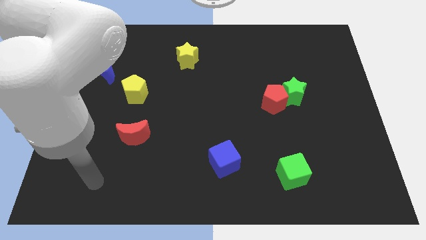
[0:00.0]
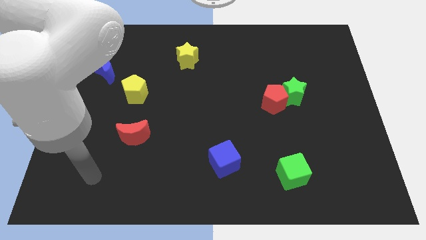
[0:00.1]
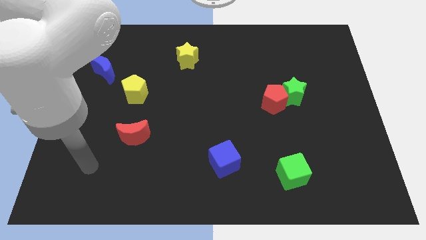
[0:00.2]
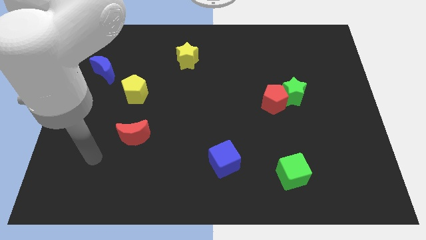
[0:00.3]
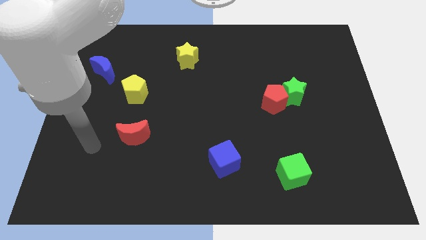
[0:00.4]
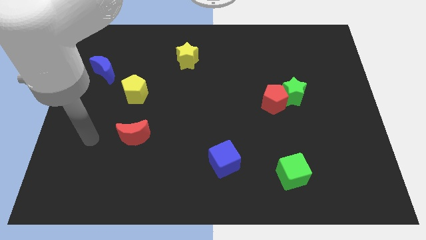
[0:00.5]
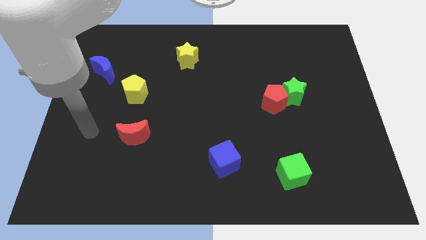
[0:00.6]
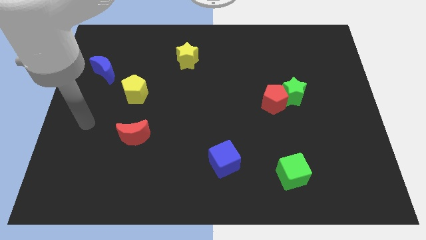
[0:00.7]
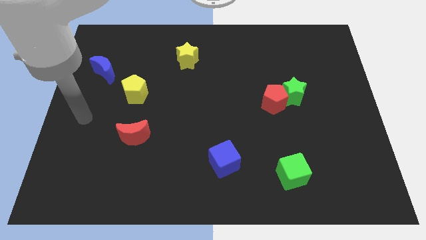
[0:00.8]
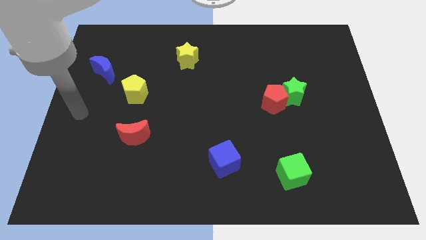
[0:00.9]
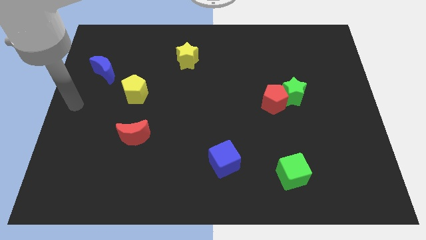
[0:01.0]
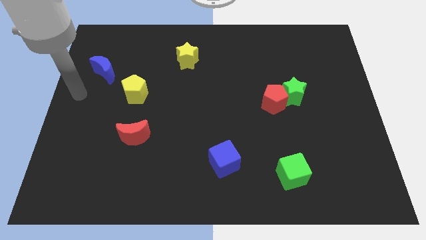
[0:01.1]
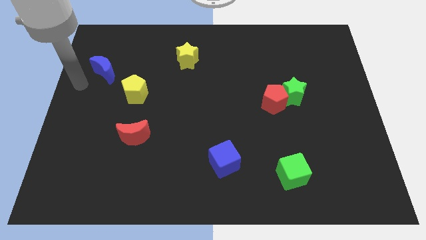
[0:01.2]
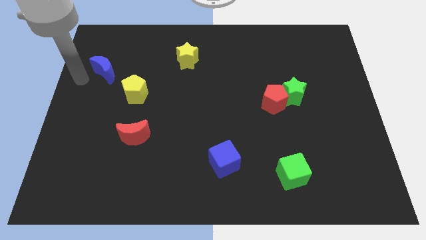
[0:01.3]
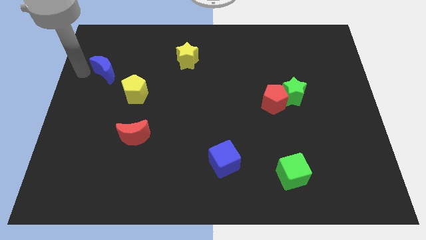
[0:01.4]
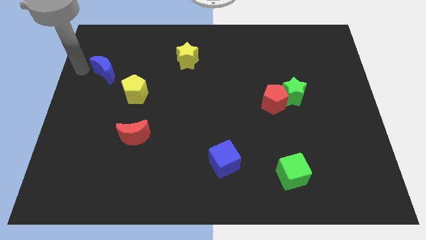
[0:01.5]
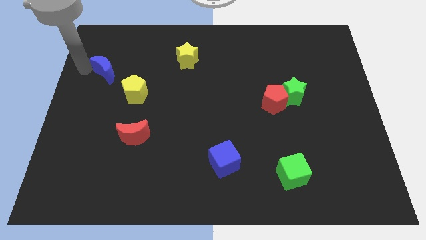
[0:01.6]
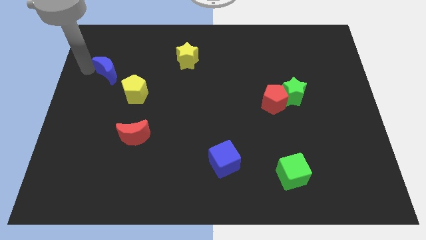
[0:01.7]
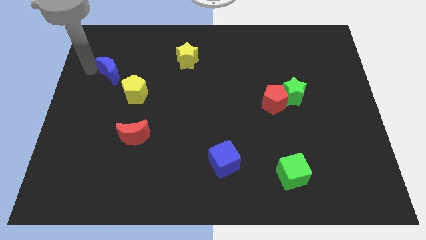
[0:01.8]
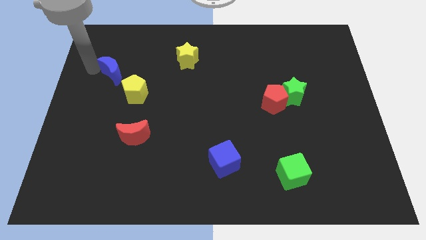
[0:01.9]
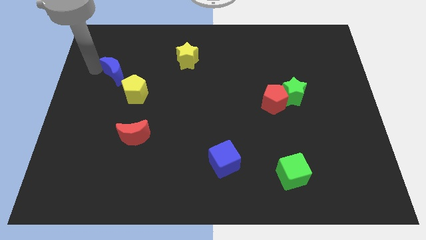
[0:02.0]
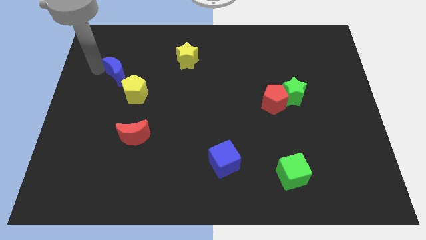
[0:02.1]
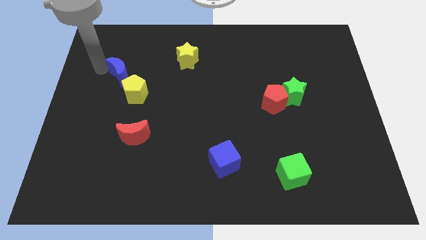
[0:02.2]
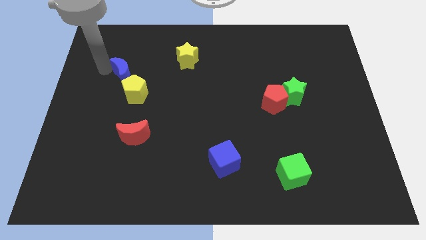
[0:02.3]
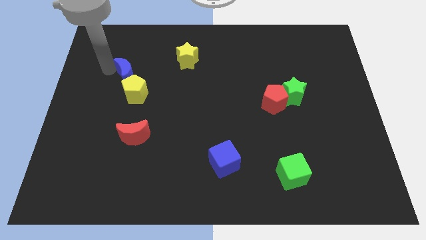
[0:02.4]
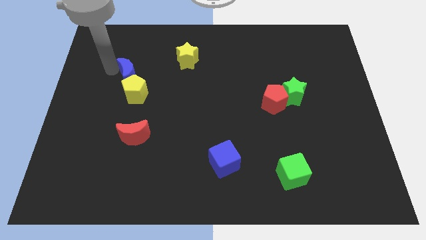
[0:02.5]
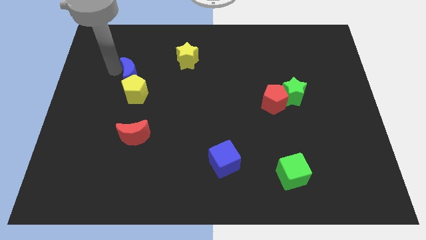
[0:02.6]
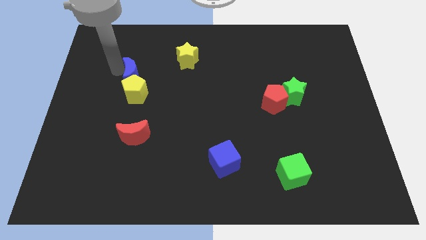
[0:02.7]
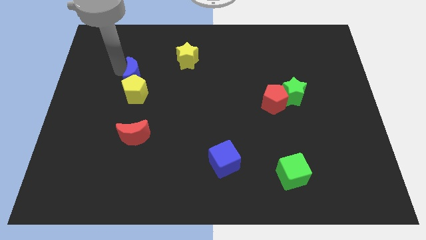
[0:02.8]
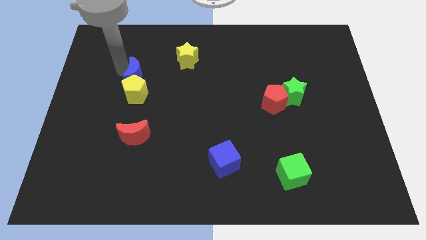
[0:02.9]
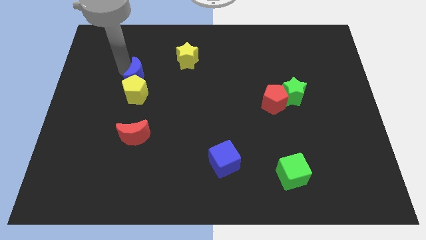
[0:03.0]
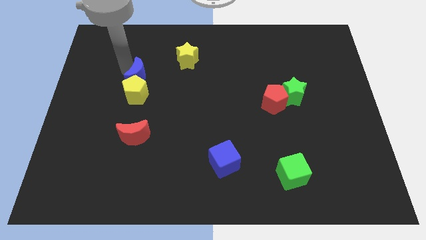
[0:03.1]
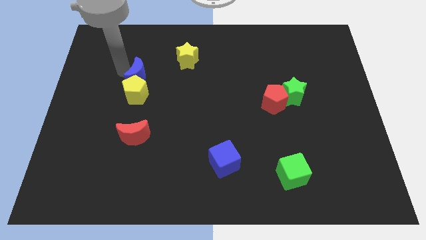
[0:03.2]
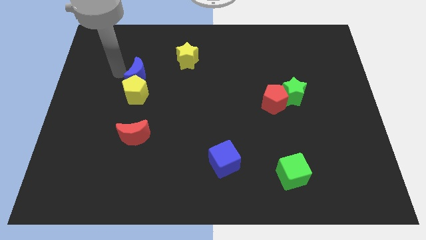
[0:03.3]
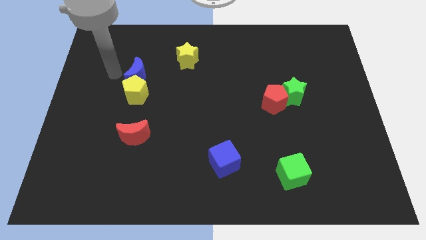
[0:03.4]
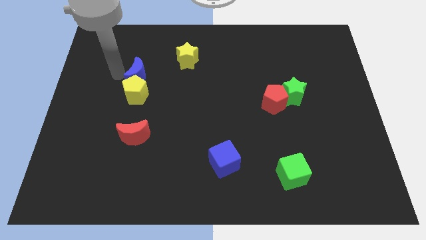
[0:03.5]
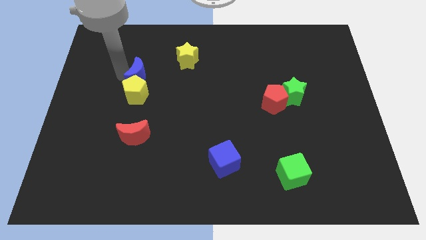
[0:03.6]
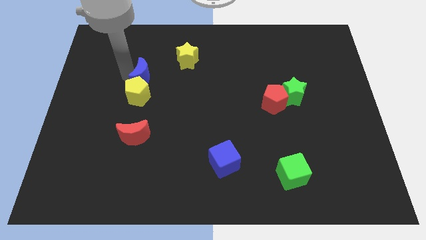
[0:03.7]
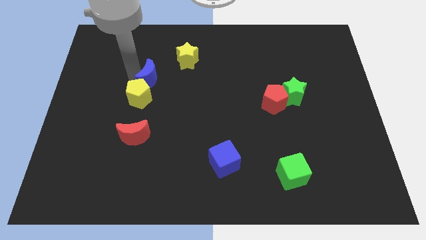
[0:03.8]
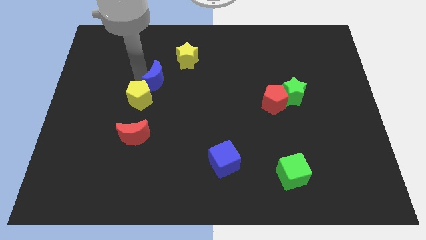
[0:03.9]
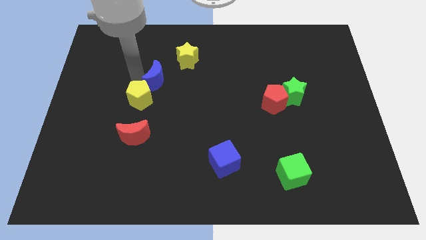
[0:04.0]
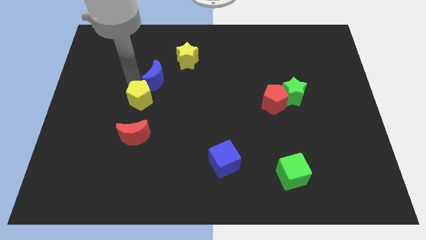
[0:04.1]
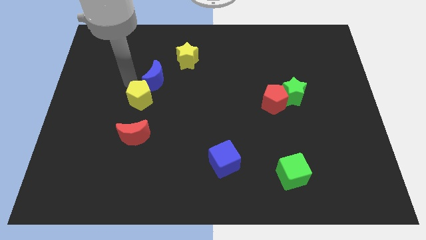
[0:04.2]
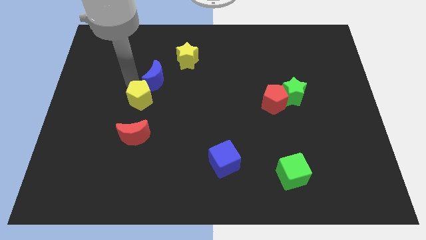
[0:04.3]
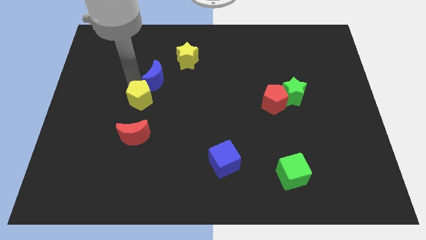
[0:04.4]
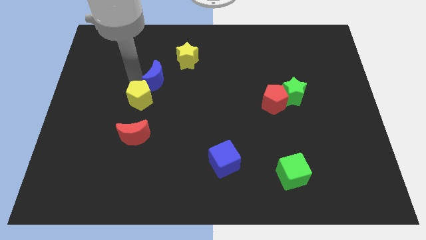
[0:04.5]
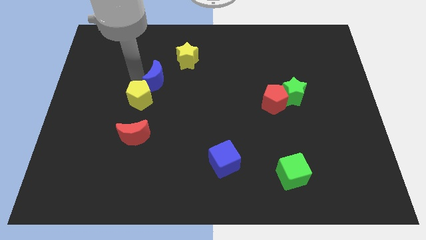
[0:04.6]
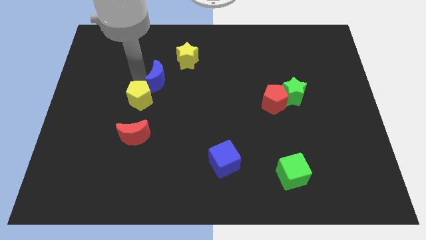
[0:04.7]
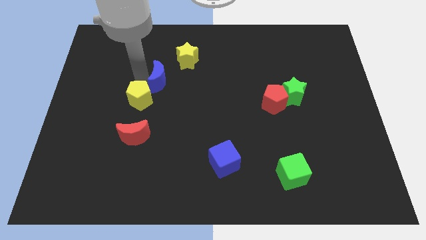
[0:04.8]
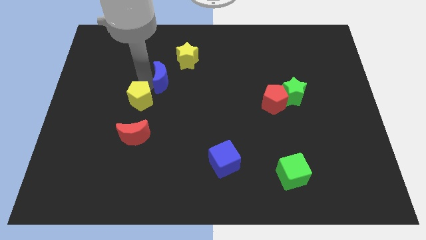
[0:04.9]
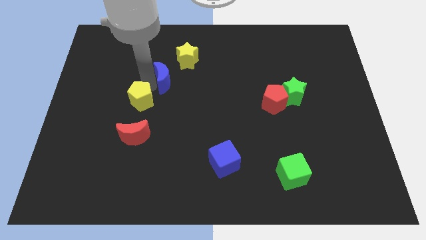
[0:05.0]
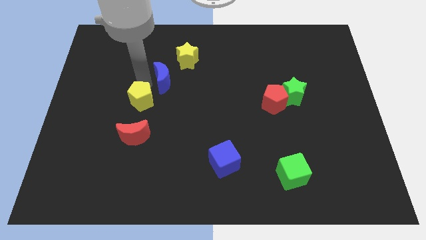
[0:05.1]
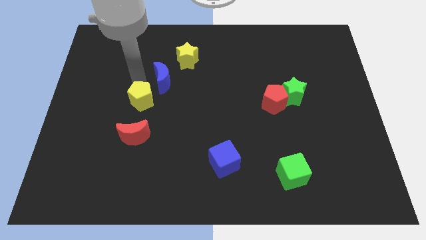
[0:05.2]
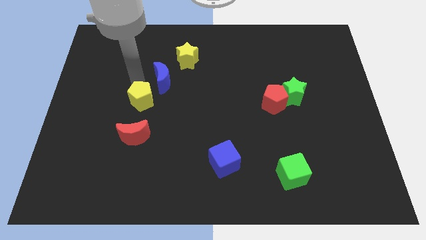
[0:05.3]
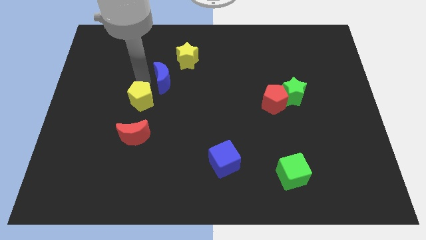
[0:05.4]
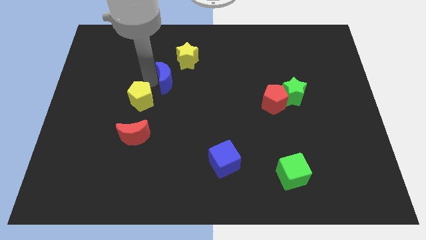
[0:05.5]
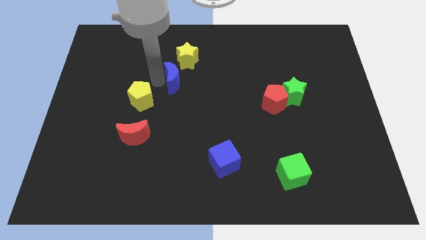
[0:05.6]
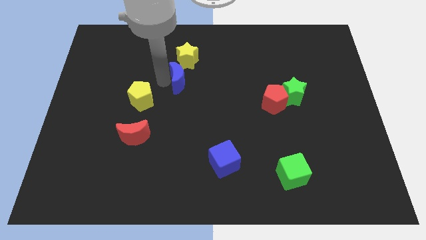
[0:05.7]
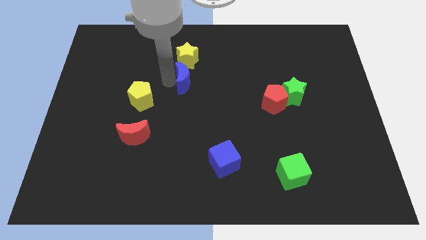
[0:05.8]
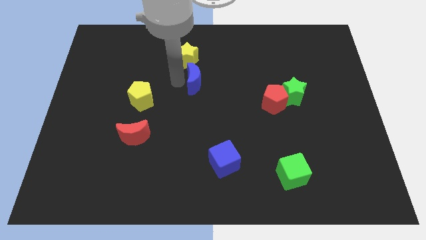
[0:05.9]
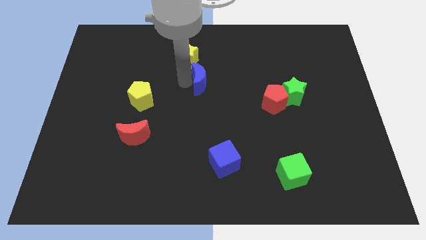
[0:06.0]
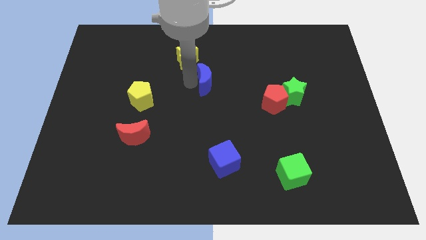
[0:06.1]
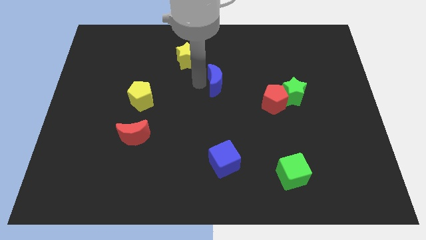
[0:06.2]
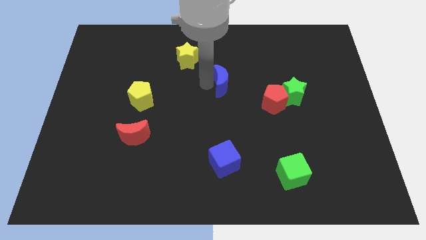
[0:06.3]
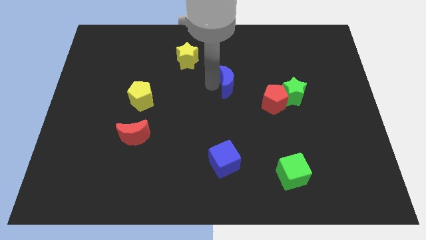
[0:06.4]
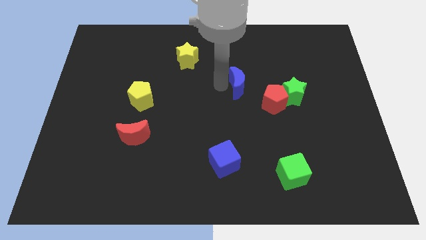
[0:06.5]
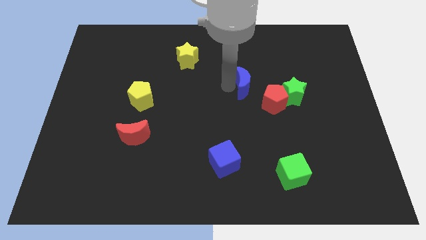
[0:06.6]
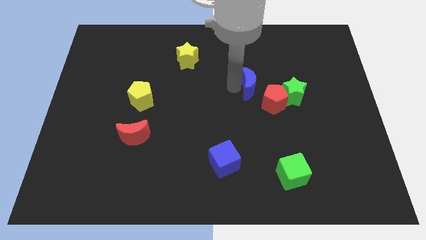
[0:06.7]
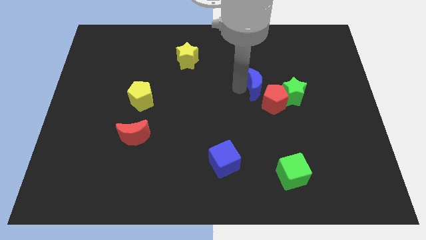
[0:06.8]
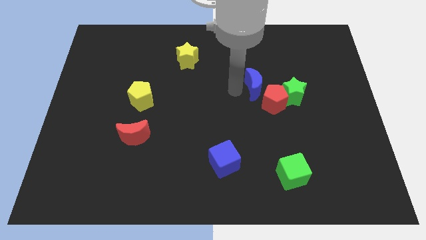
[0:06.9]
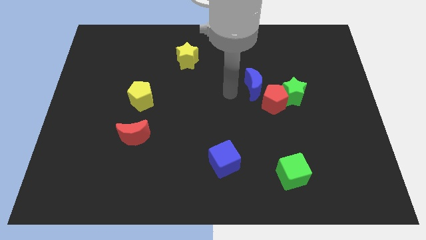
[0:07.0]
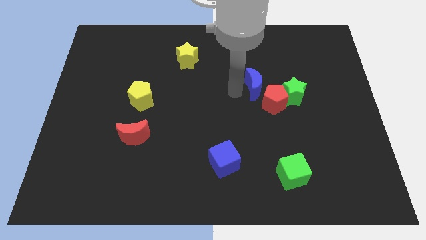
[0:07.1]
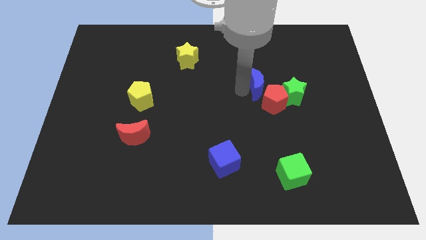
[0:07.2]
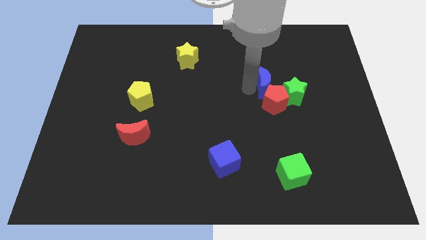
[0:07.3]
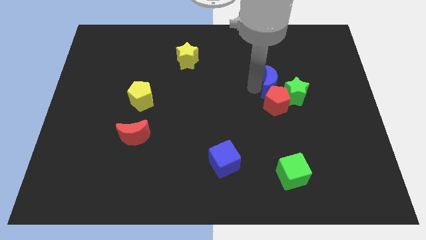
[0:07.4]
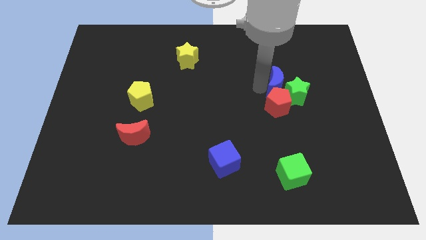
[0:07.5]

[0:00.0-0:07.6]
slide the blue moon close to the green star

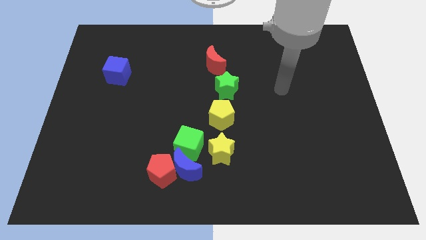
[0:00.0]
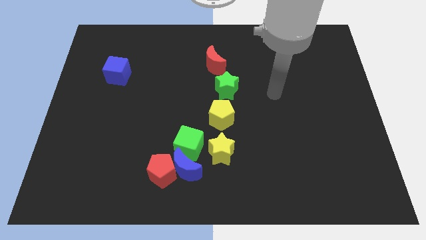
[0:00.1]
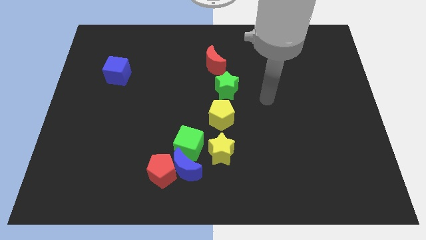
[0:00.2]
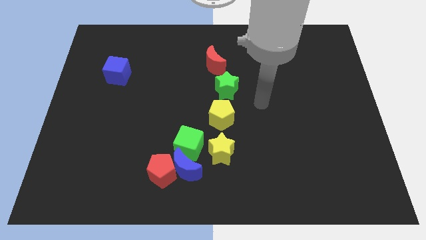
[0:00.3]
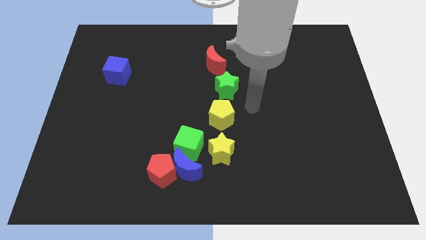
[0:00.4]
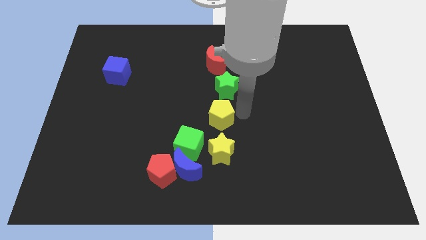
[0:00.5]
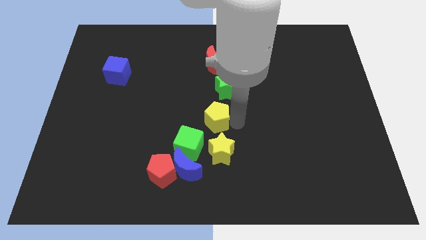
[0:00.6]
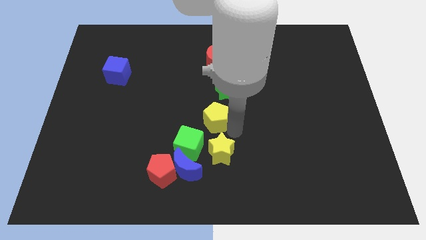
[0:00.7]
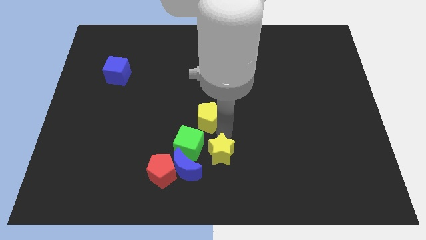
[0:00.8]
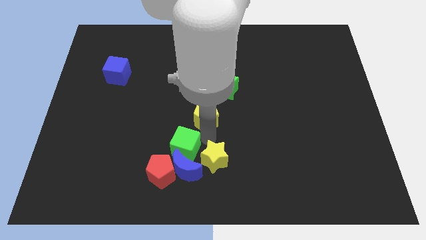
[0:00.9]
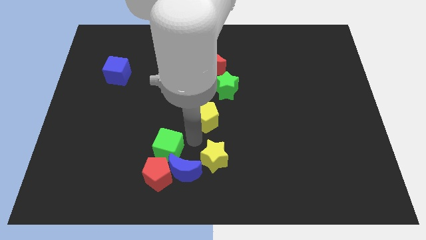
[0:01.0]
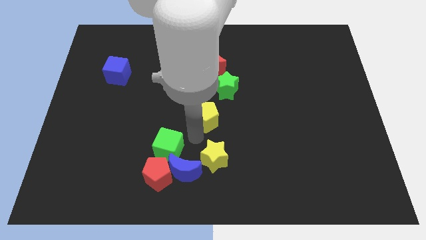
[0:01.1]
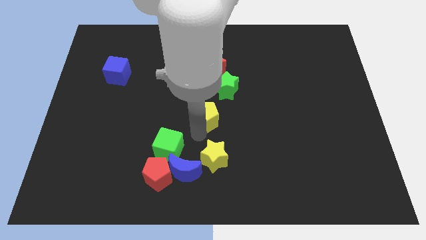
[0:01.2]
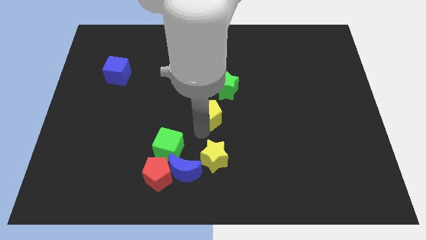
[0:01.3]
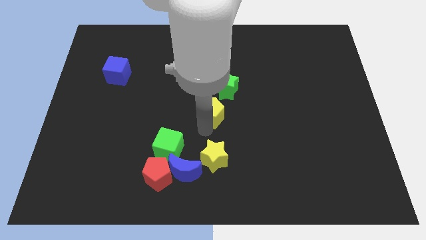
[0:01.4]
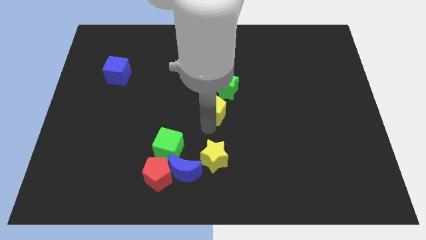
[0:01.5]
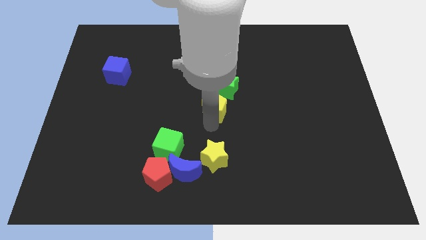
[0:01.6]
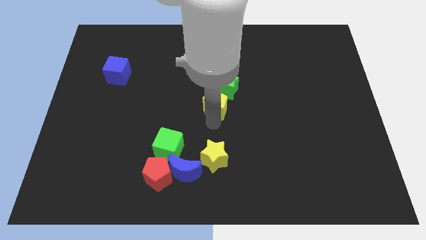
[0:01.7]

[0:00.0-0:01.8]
put the yellow pentagon towards the green star
